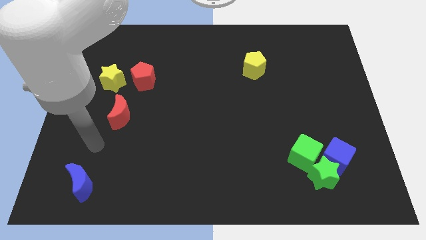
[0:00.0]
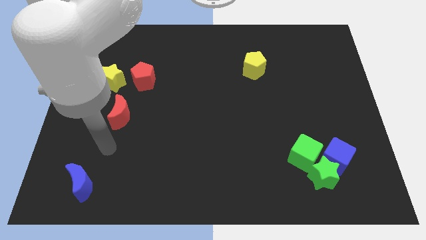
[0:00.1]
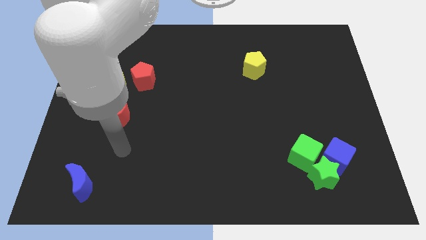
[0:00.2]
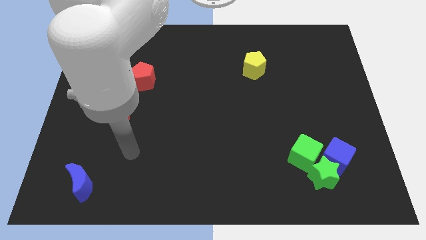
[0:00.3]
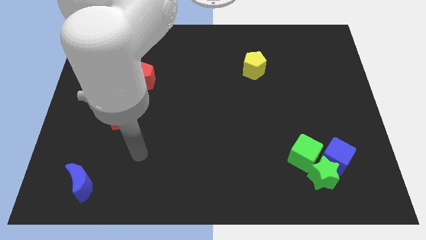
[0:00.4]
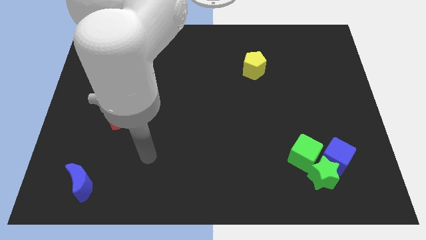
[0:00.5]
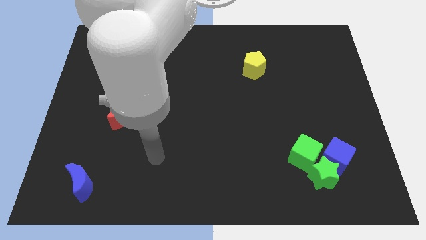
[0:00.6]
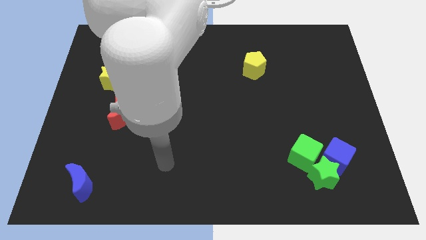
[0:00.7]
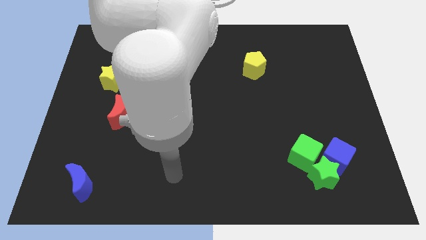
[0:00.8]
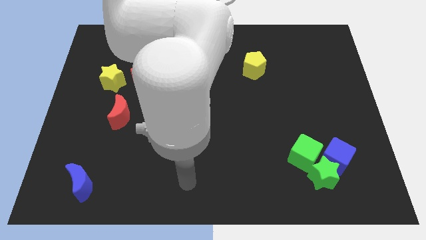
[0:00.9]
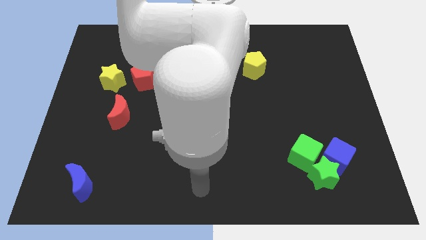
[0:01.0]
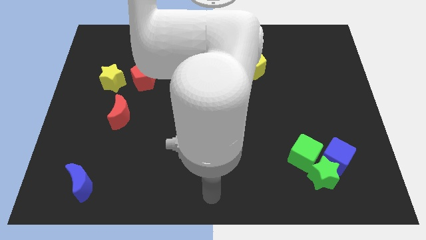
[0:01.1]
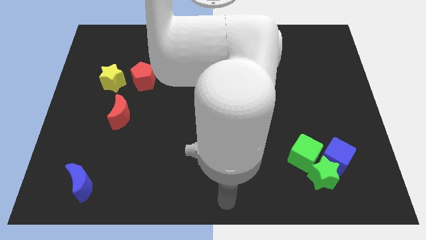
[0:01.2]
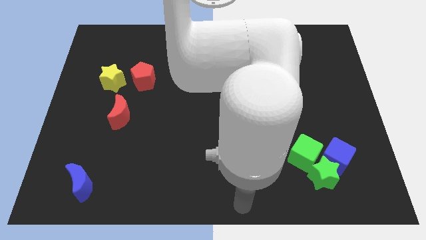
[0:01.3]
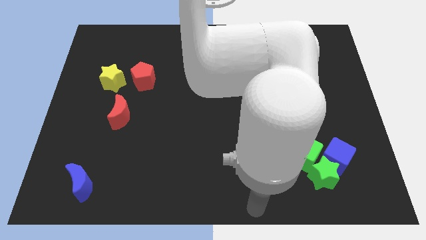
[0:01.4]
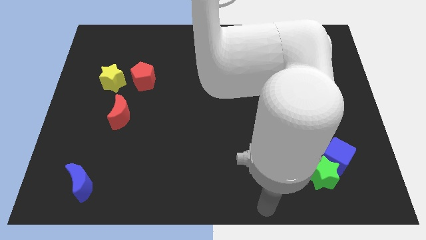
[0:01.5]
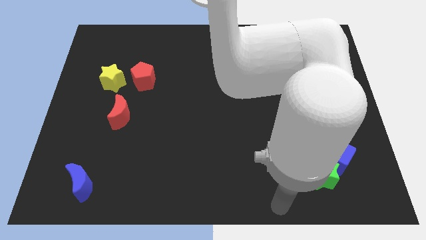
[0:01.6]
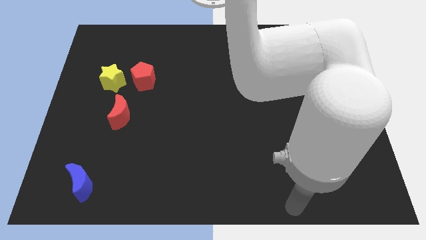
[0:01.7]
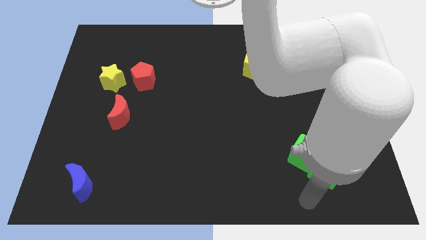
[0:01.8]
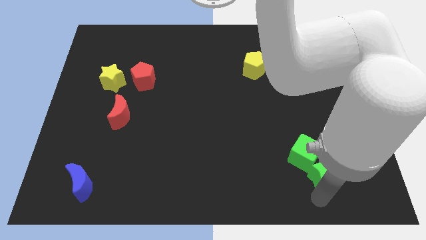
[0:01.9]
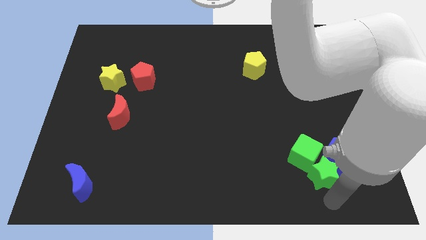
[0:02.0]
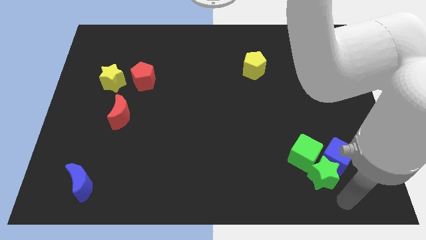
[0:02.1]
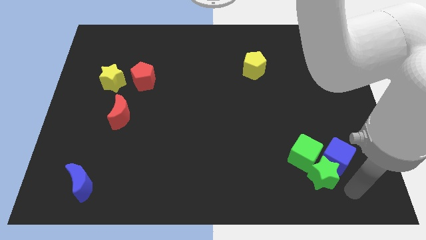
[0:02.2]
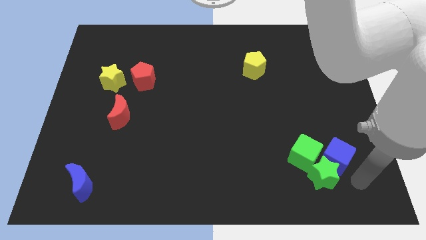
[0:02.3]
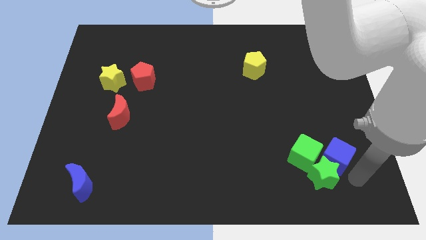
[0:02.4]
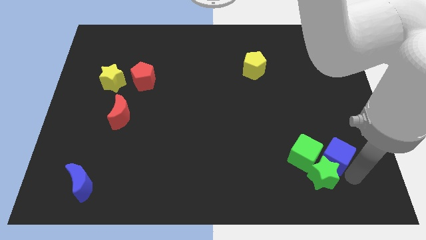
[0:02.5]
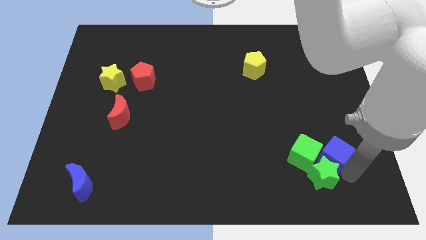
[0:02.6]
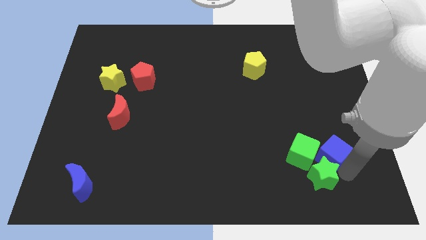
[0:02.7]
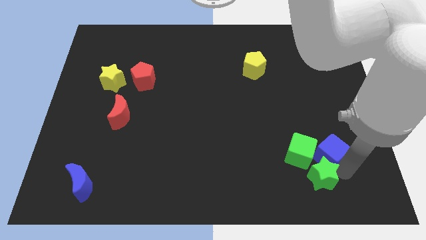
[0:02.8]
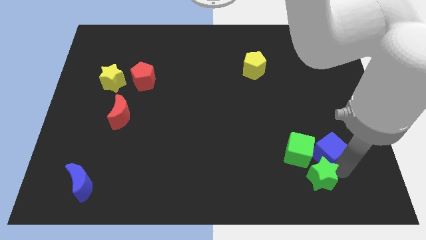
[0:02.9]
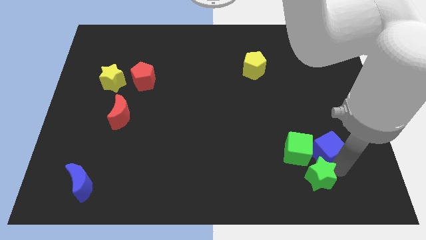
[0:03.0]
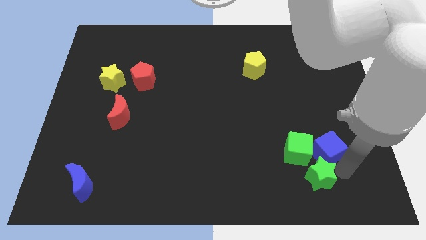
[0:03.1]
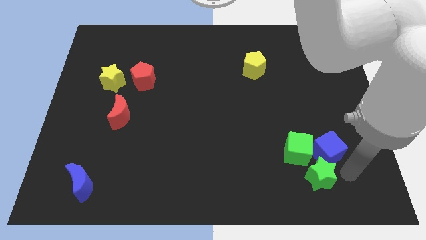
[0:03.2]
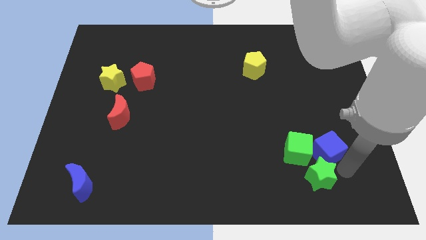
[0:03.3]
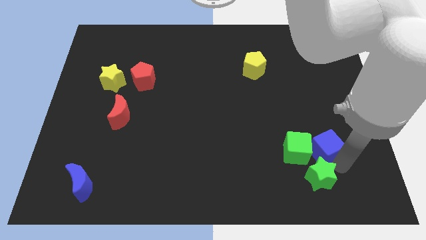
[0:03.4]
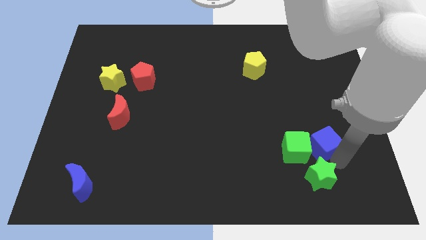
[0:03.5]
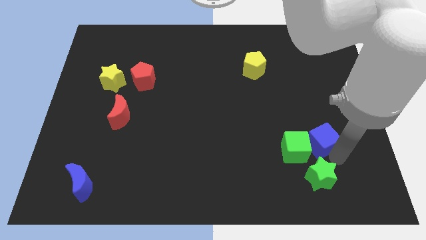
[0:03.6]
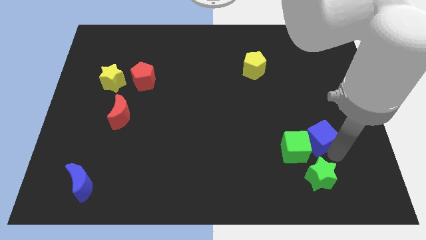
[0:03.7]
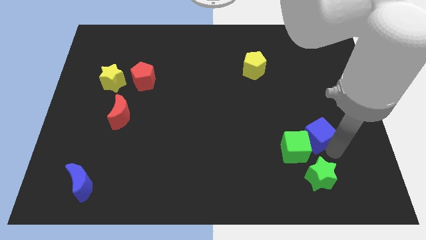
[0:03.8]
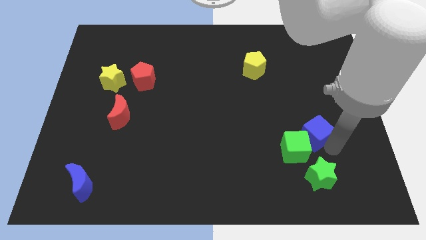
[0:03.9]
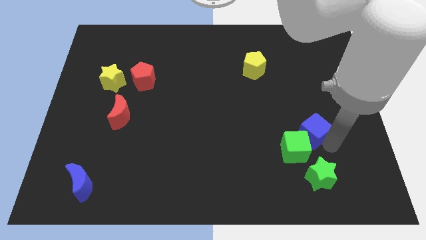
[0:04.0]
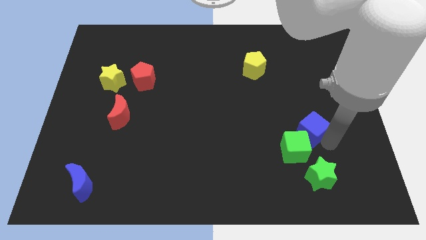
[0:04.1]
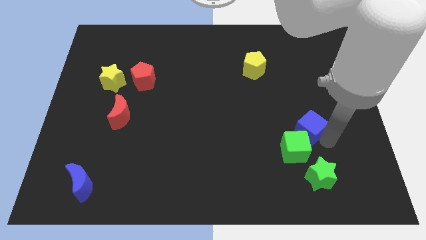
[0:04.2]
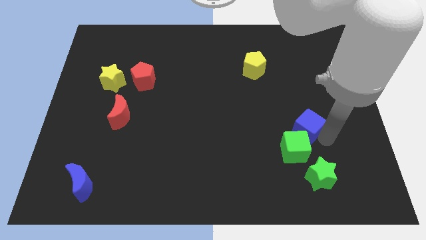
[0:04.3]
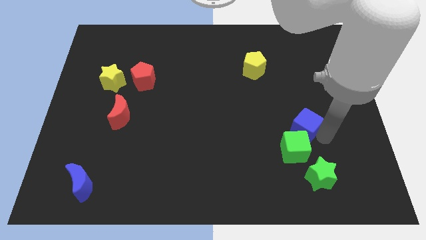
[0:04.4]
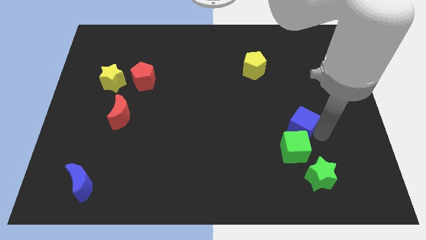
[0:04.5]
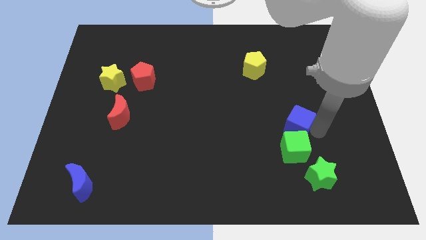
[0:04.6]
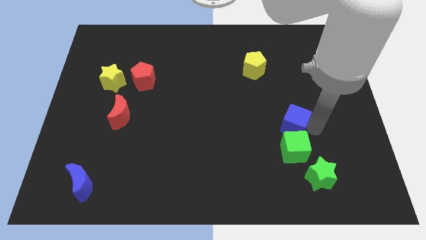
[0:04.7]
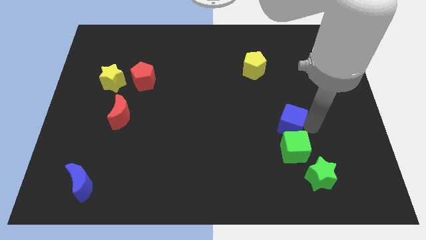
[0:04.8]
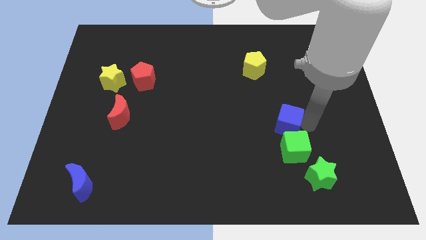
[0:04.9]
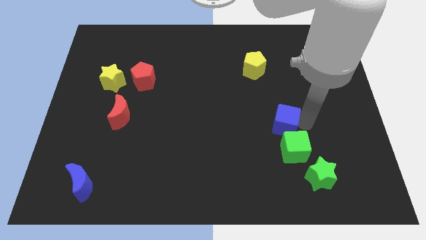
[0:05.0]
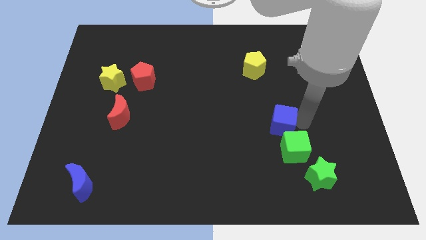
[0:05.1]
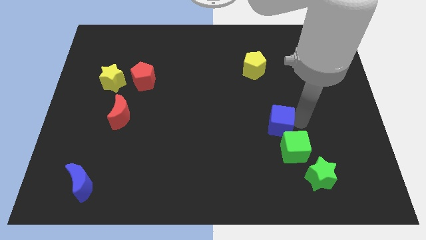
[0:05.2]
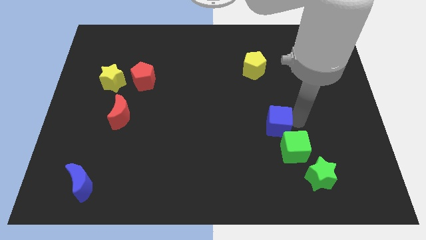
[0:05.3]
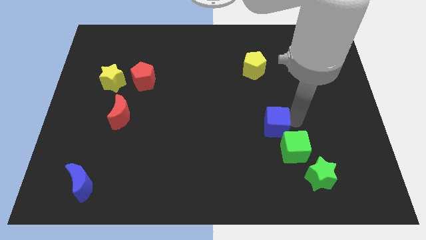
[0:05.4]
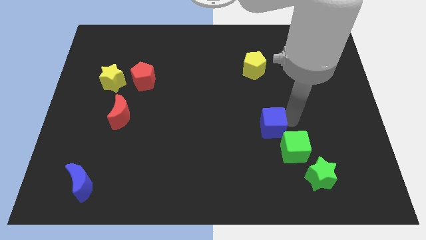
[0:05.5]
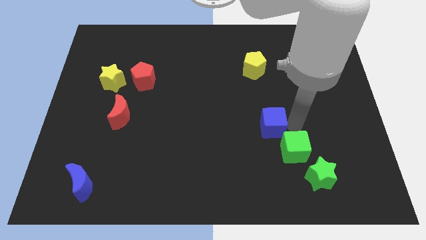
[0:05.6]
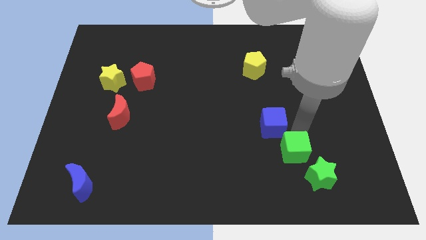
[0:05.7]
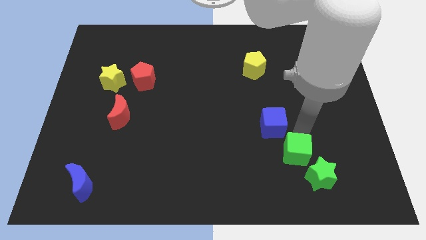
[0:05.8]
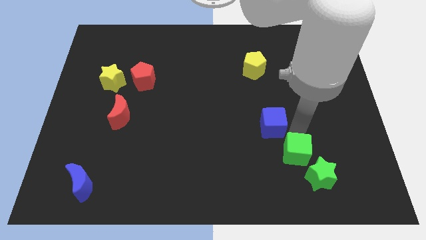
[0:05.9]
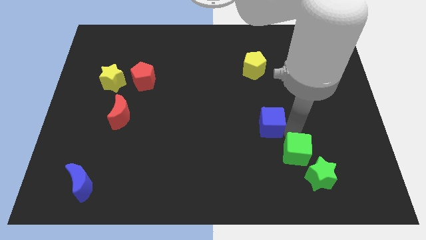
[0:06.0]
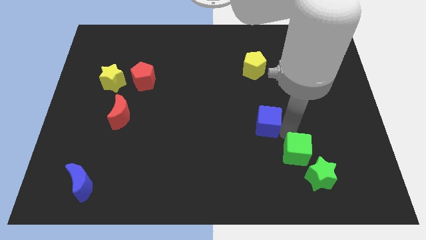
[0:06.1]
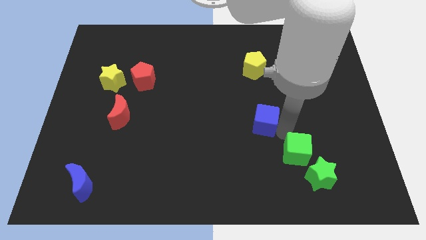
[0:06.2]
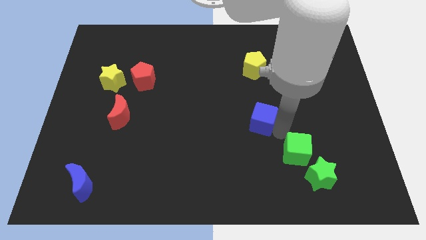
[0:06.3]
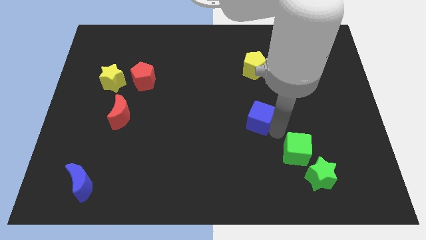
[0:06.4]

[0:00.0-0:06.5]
push the blue cube to the center of the board
